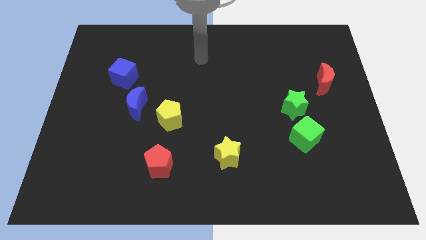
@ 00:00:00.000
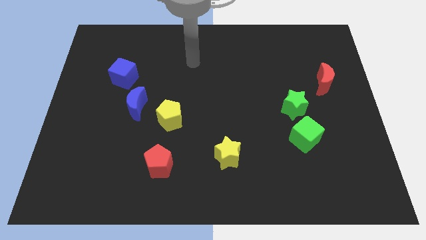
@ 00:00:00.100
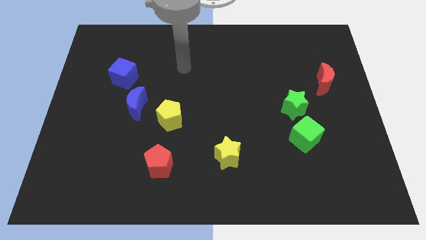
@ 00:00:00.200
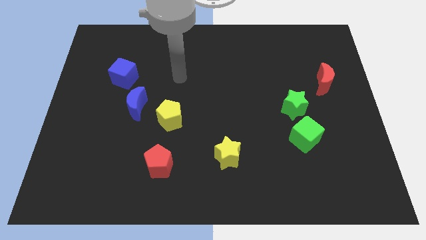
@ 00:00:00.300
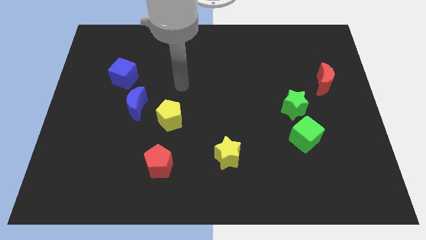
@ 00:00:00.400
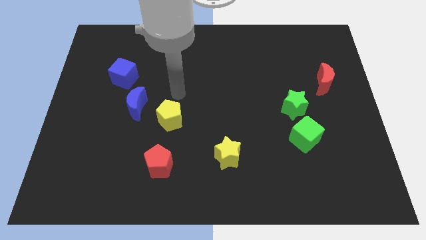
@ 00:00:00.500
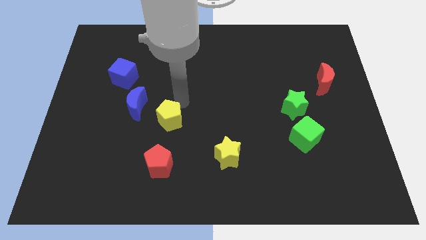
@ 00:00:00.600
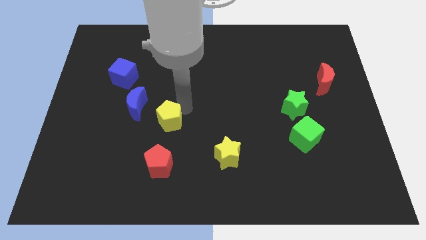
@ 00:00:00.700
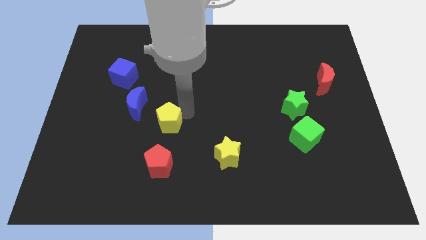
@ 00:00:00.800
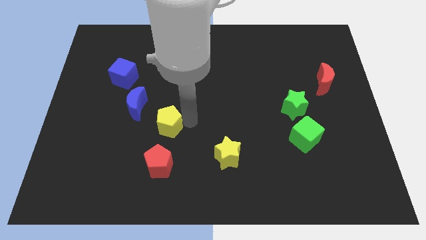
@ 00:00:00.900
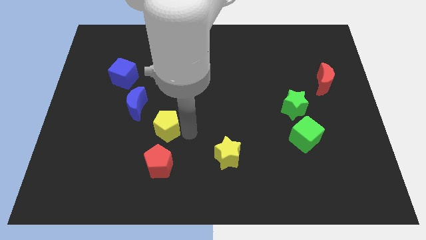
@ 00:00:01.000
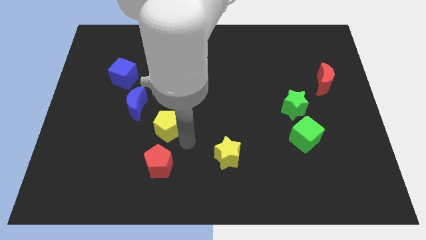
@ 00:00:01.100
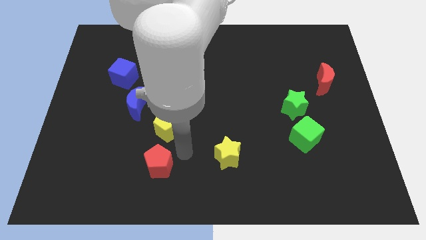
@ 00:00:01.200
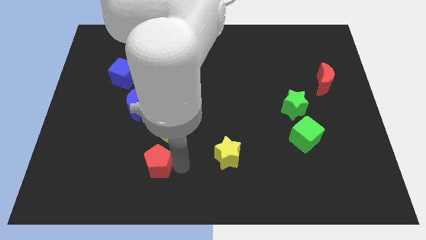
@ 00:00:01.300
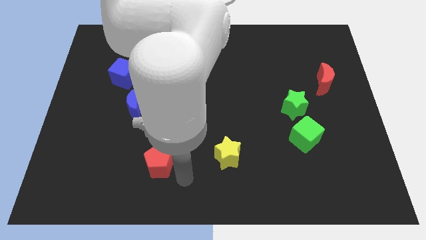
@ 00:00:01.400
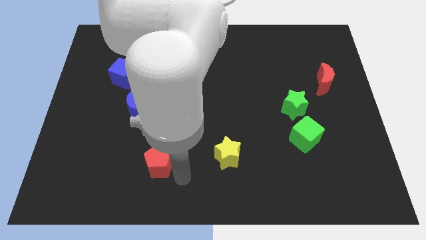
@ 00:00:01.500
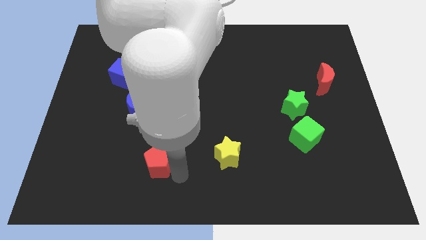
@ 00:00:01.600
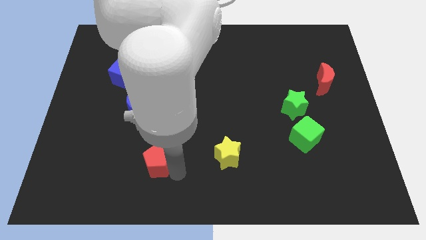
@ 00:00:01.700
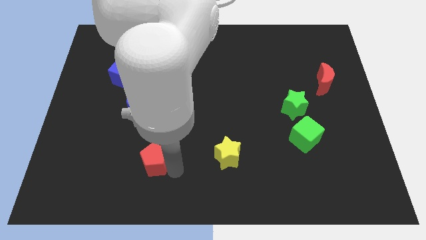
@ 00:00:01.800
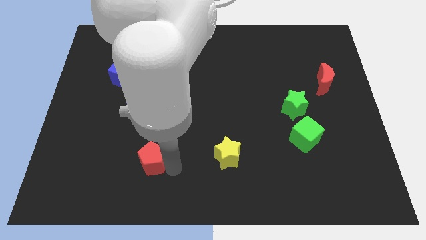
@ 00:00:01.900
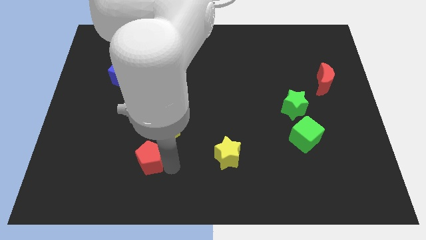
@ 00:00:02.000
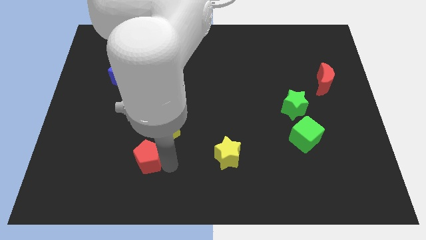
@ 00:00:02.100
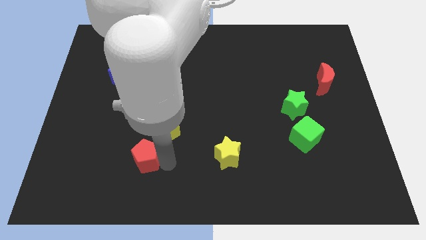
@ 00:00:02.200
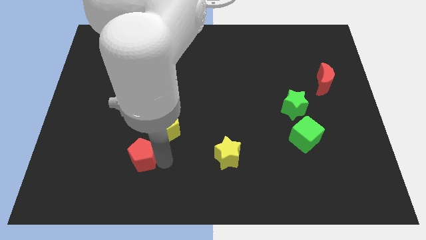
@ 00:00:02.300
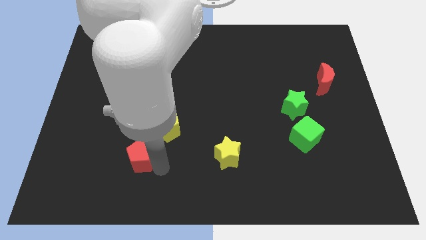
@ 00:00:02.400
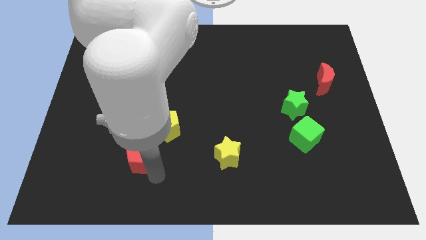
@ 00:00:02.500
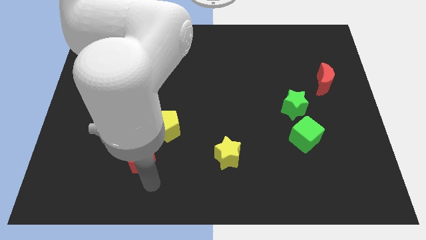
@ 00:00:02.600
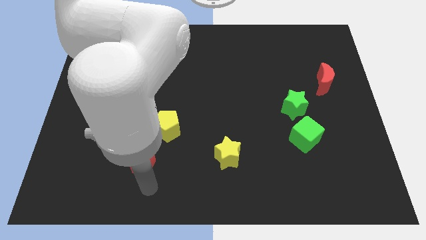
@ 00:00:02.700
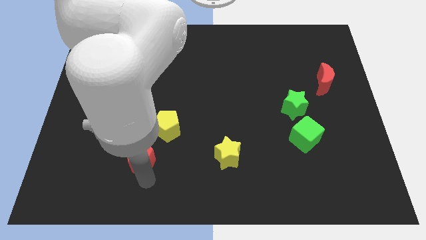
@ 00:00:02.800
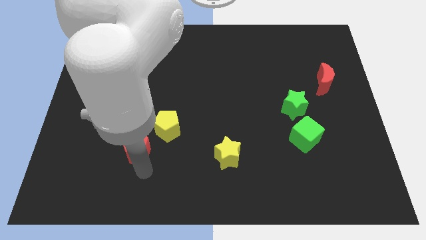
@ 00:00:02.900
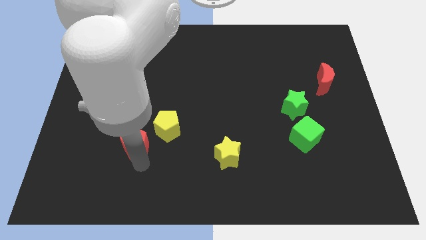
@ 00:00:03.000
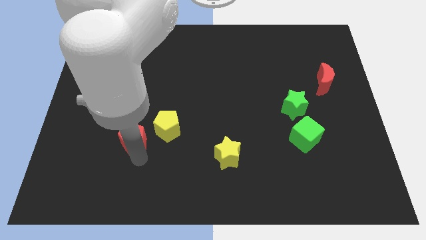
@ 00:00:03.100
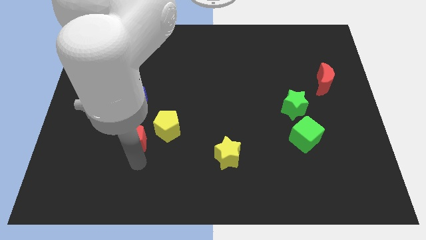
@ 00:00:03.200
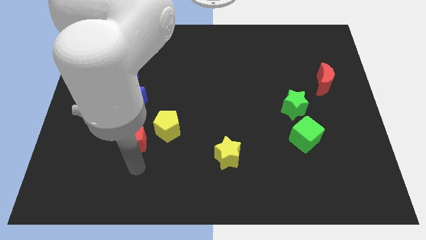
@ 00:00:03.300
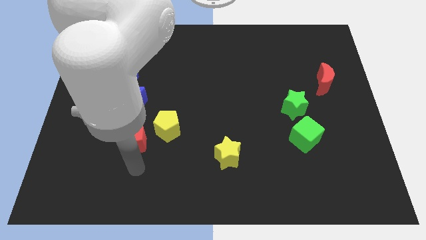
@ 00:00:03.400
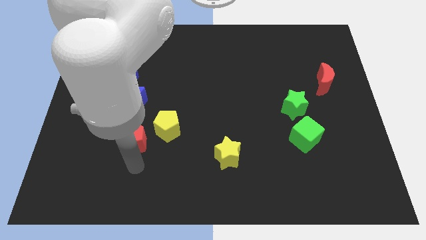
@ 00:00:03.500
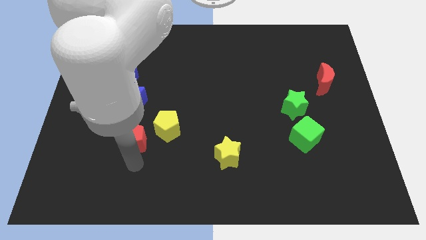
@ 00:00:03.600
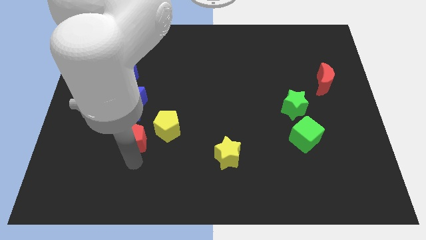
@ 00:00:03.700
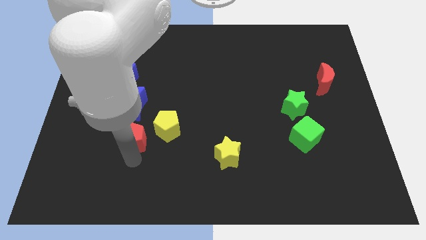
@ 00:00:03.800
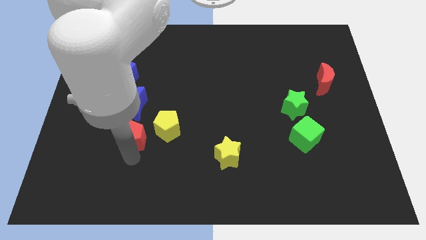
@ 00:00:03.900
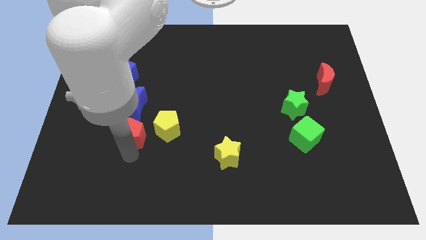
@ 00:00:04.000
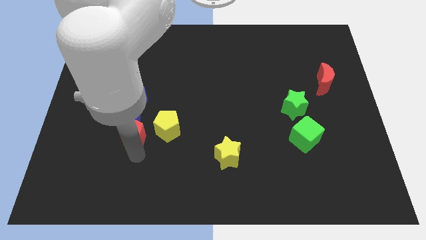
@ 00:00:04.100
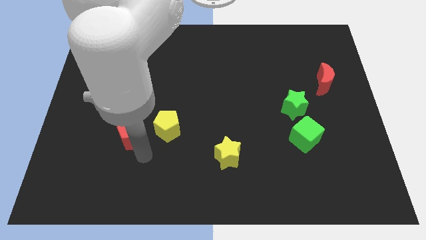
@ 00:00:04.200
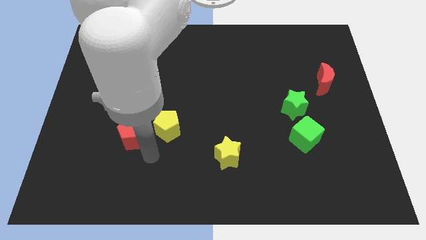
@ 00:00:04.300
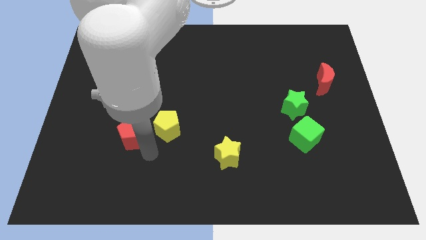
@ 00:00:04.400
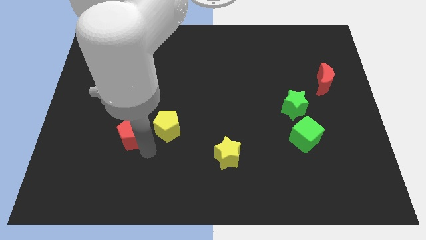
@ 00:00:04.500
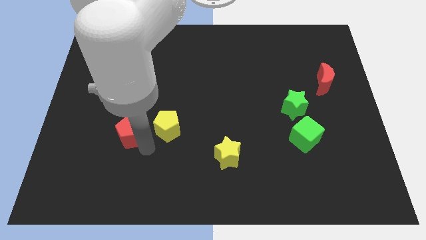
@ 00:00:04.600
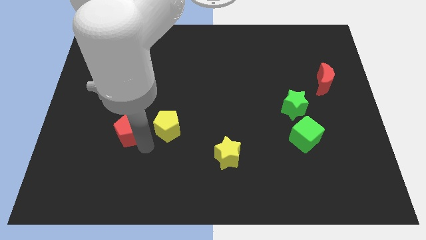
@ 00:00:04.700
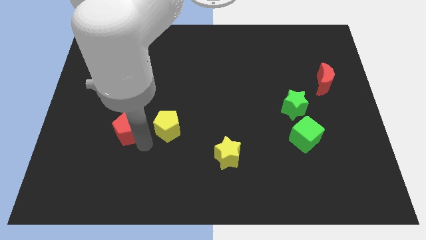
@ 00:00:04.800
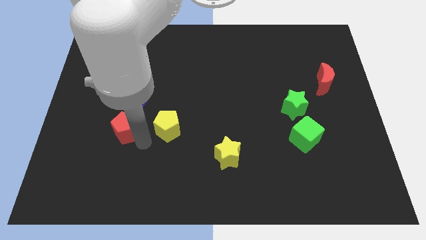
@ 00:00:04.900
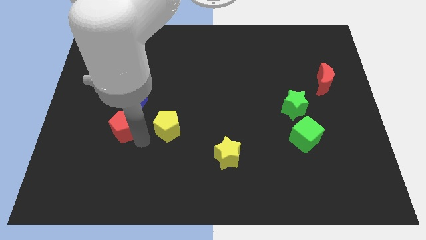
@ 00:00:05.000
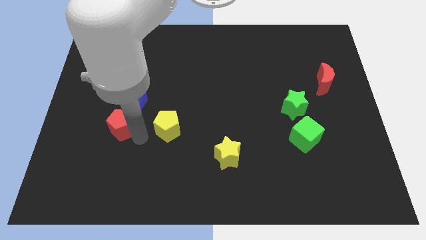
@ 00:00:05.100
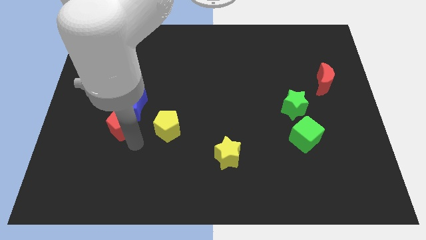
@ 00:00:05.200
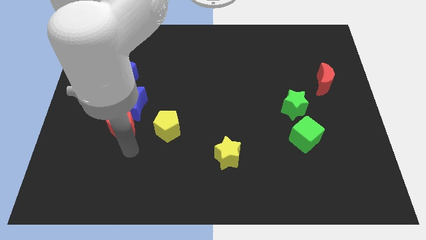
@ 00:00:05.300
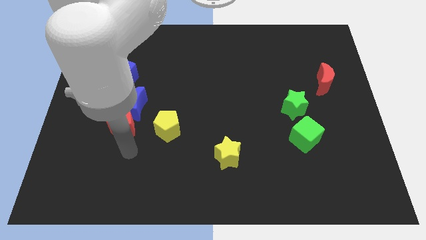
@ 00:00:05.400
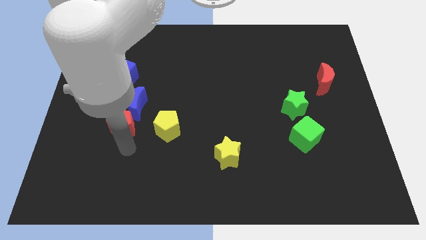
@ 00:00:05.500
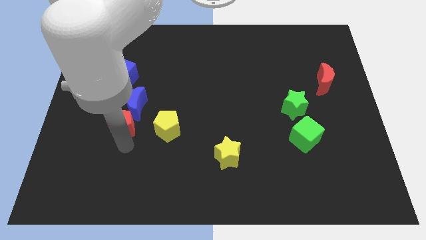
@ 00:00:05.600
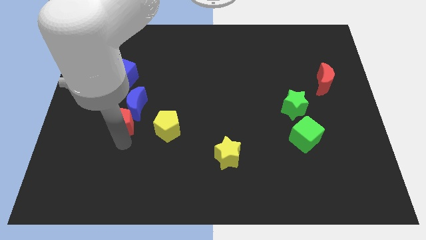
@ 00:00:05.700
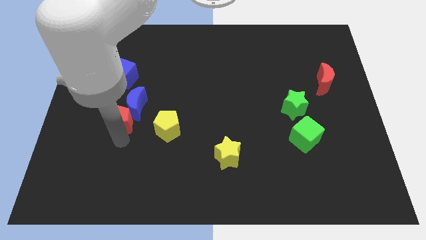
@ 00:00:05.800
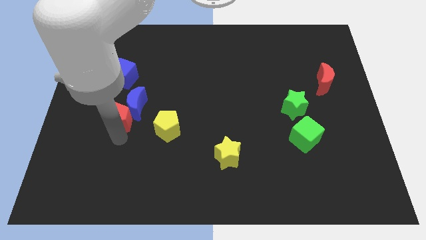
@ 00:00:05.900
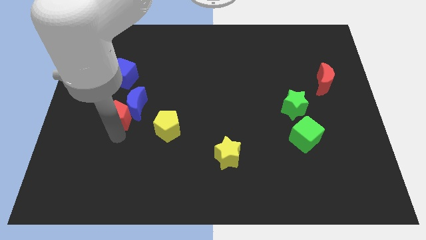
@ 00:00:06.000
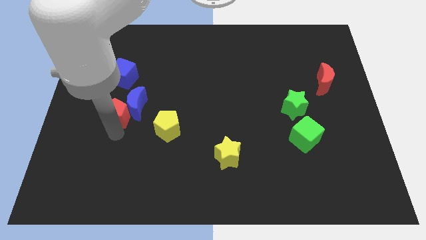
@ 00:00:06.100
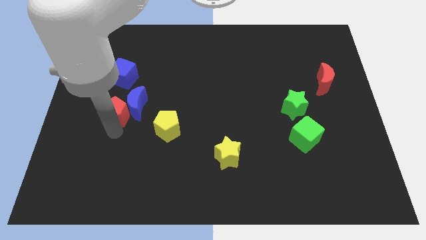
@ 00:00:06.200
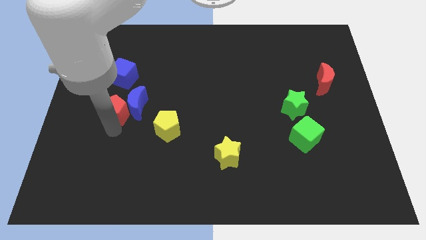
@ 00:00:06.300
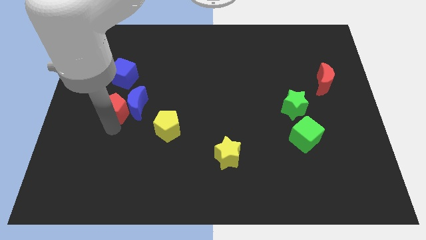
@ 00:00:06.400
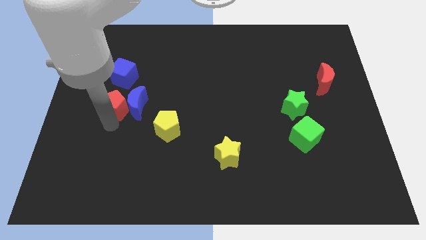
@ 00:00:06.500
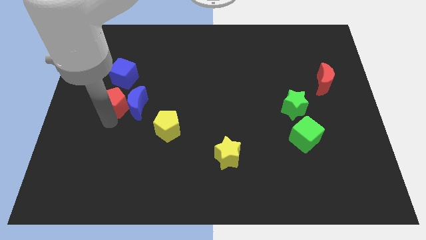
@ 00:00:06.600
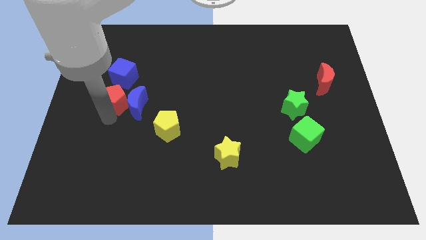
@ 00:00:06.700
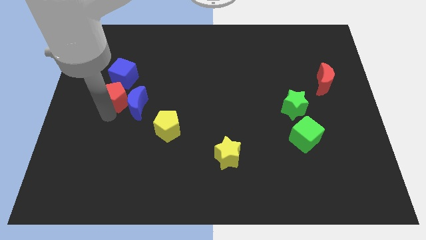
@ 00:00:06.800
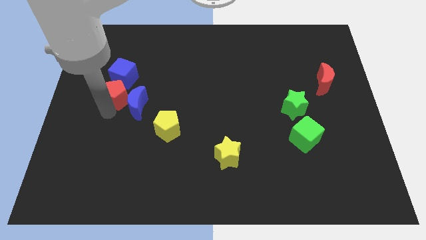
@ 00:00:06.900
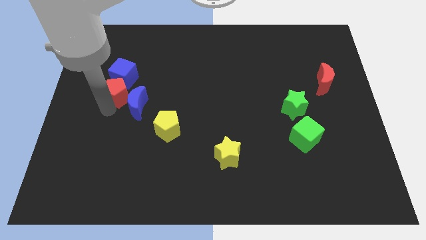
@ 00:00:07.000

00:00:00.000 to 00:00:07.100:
slide the red pentagon to the blue cube
